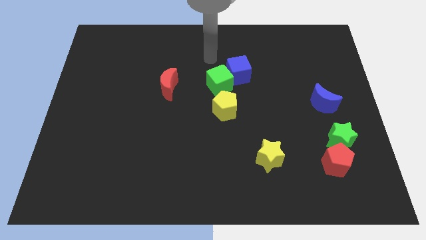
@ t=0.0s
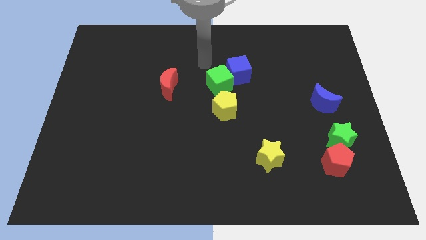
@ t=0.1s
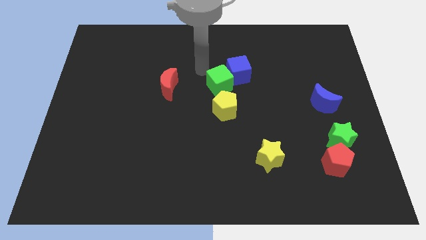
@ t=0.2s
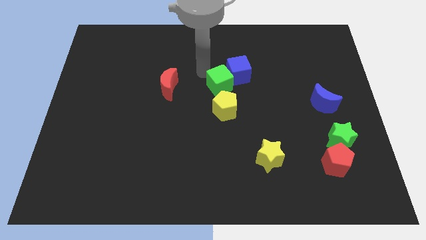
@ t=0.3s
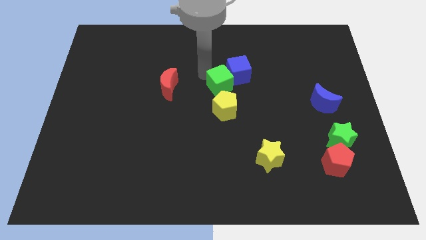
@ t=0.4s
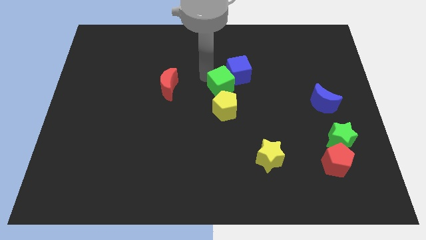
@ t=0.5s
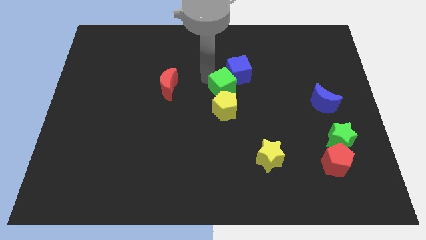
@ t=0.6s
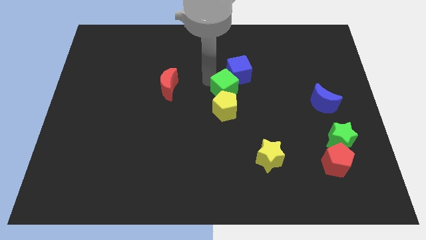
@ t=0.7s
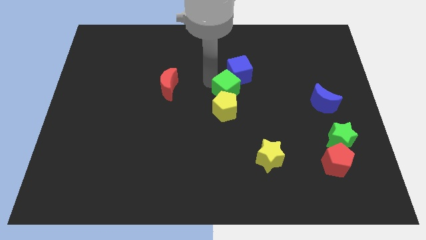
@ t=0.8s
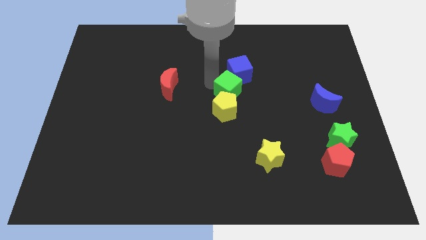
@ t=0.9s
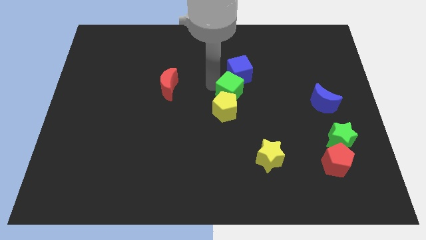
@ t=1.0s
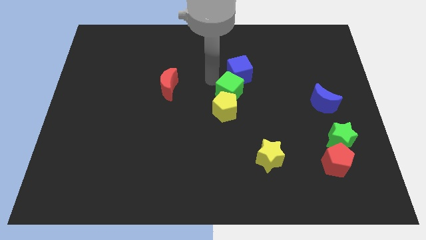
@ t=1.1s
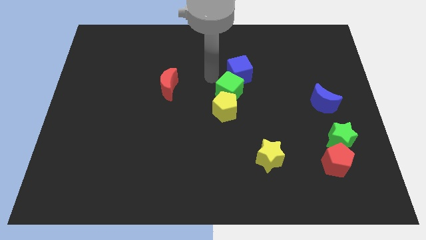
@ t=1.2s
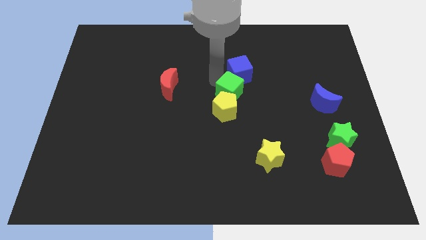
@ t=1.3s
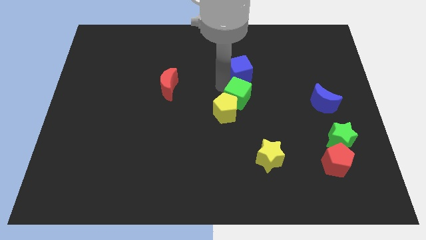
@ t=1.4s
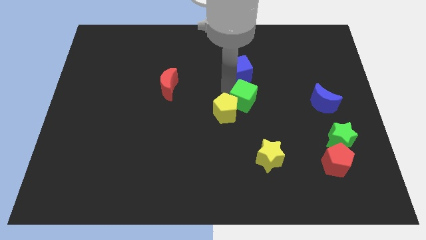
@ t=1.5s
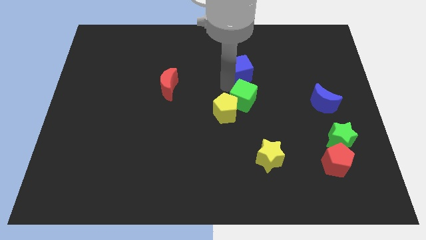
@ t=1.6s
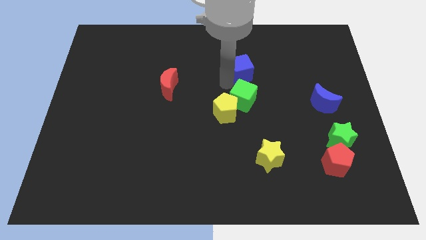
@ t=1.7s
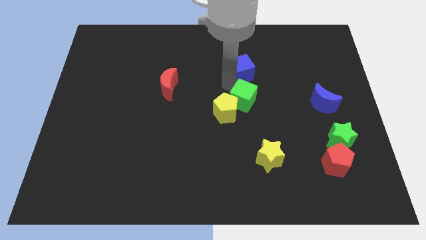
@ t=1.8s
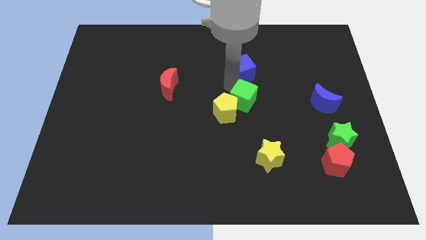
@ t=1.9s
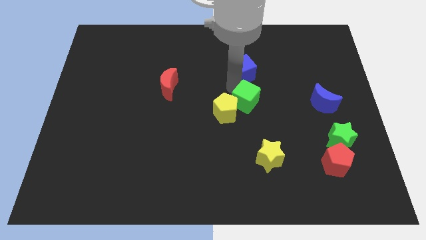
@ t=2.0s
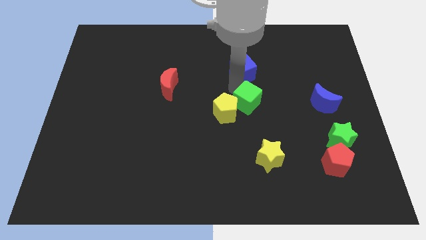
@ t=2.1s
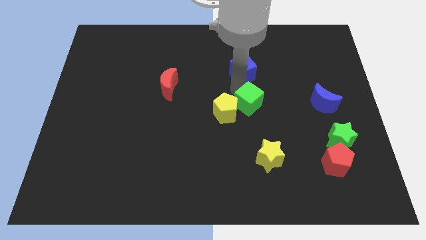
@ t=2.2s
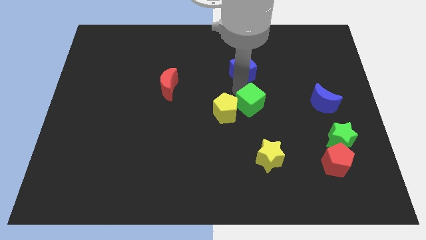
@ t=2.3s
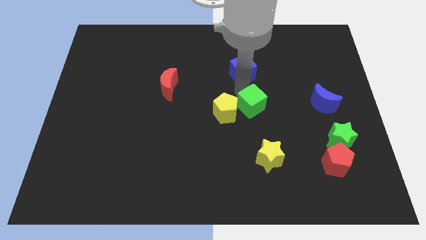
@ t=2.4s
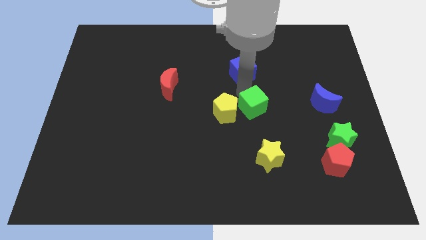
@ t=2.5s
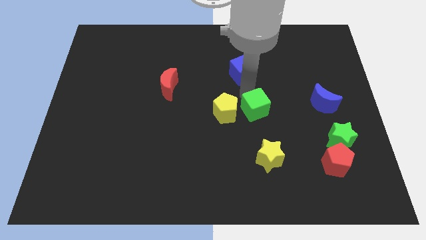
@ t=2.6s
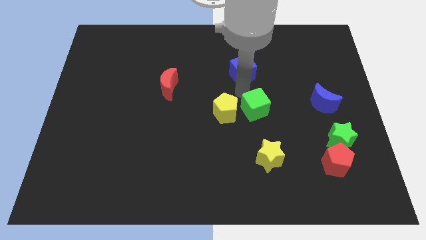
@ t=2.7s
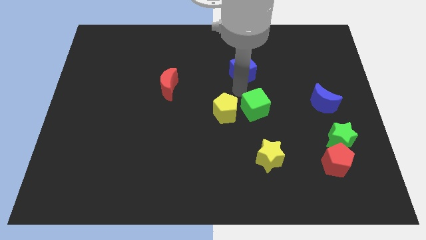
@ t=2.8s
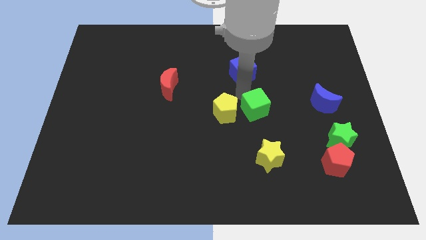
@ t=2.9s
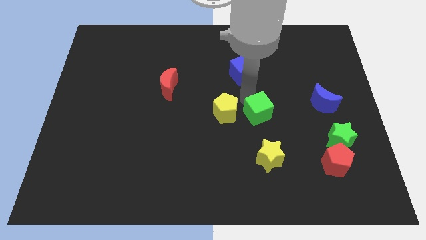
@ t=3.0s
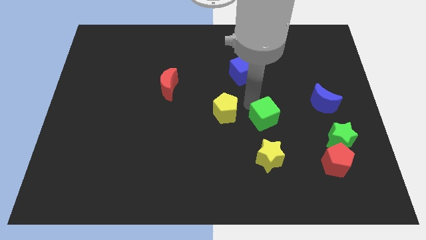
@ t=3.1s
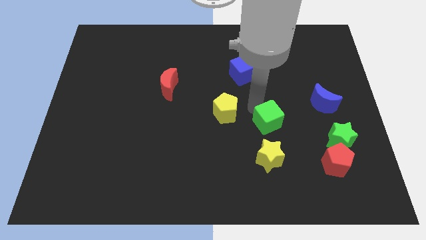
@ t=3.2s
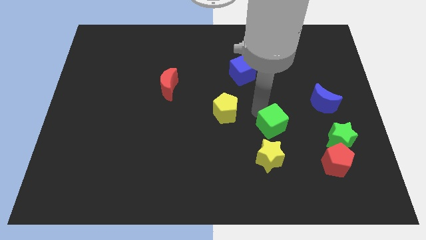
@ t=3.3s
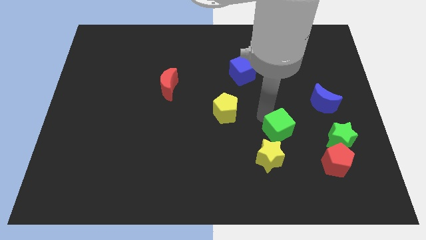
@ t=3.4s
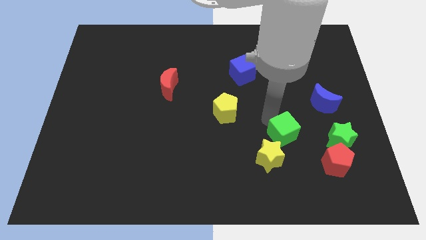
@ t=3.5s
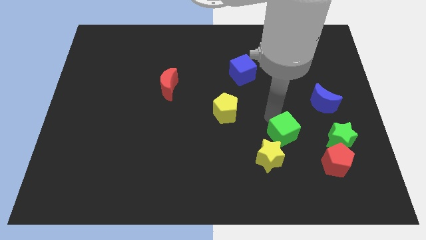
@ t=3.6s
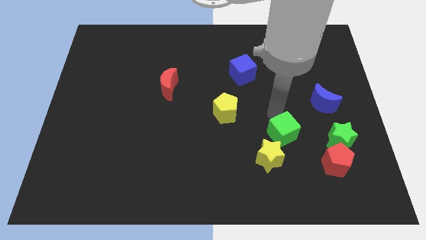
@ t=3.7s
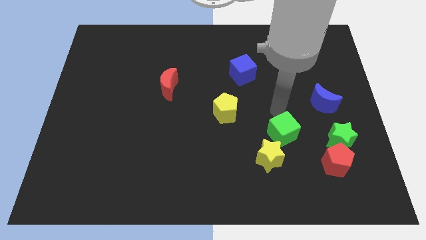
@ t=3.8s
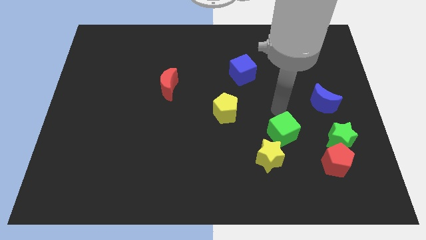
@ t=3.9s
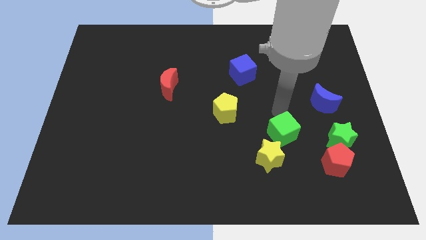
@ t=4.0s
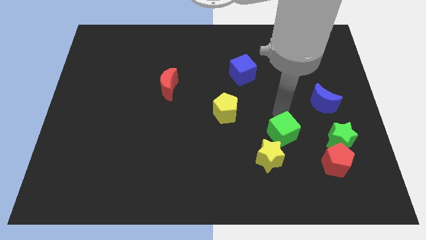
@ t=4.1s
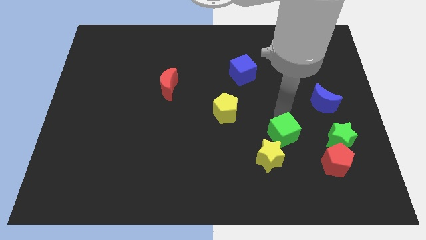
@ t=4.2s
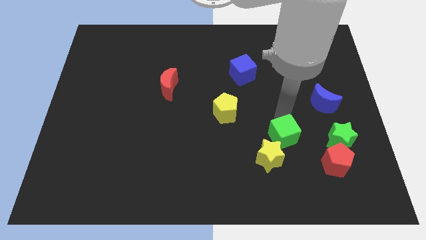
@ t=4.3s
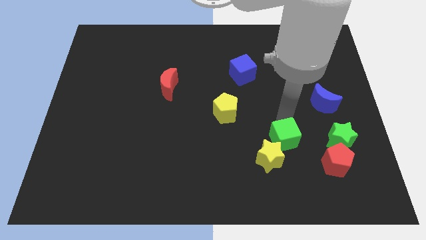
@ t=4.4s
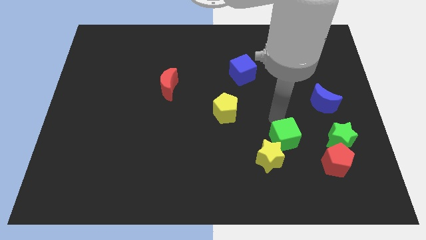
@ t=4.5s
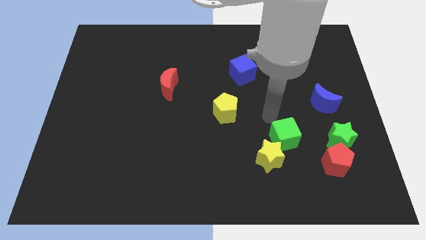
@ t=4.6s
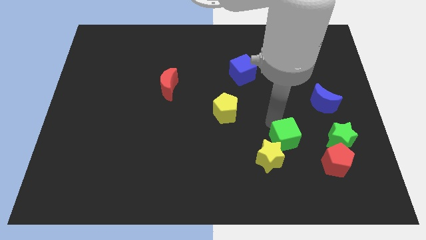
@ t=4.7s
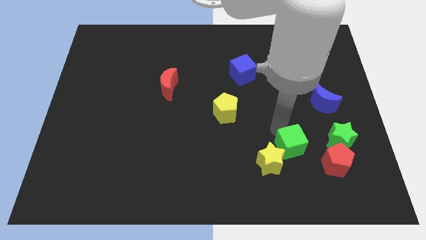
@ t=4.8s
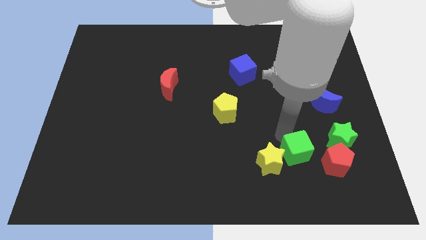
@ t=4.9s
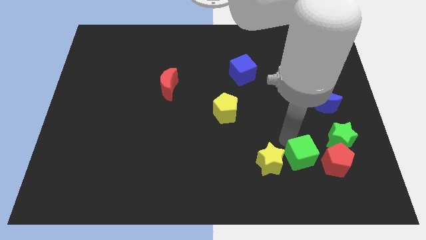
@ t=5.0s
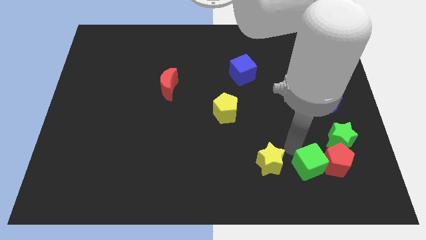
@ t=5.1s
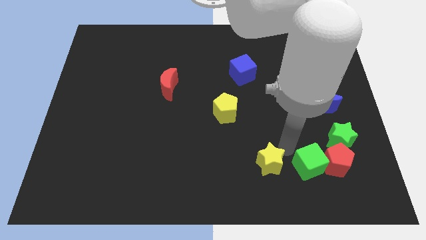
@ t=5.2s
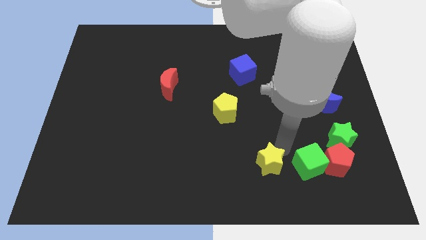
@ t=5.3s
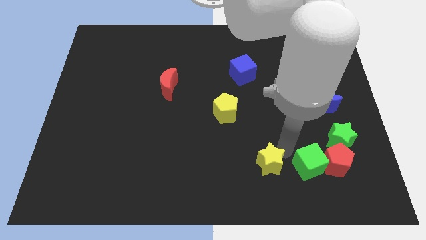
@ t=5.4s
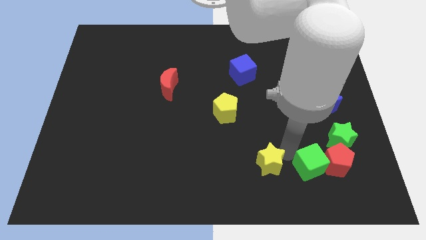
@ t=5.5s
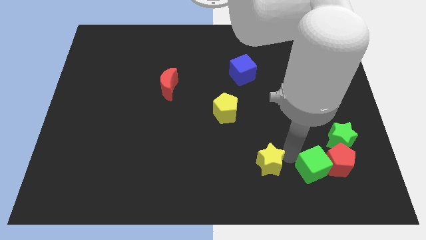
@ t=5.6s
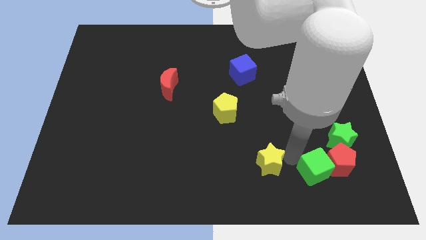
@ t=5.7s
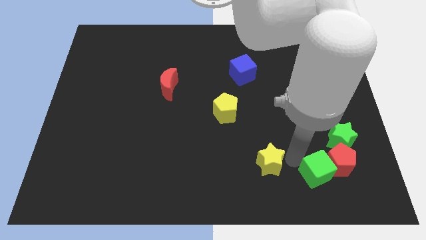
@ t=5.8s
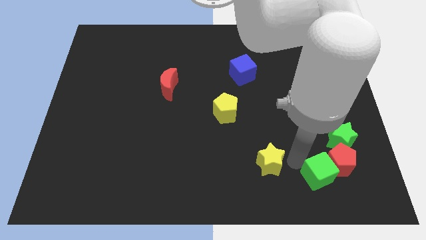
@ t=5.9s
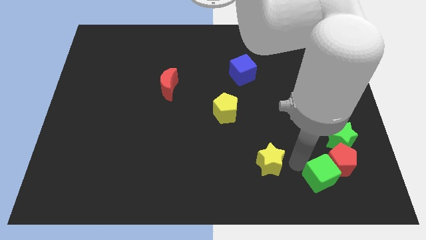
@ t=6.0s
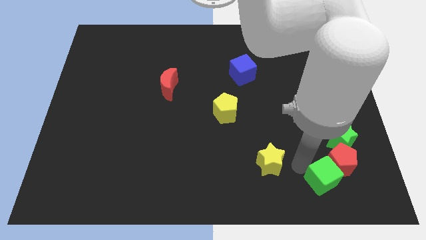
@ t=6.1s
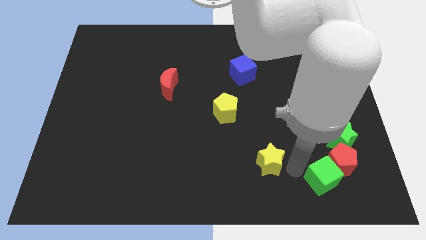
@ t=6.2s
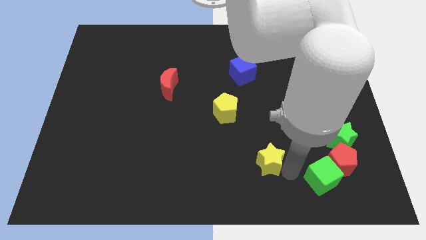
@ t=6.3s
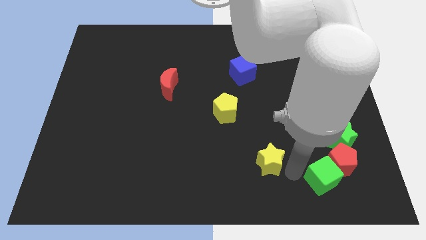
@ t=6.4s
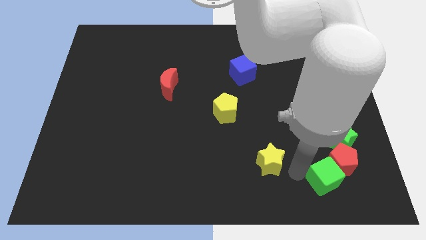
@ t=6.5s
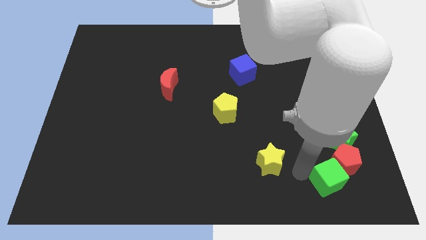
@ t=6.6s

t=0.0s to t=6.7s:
slide the green cube to the bottom of the green star
